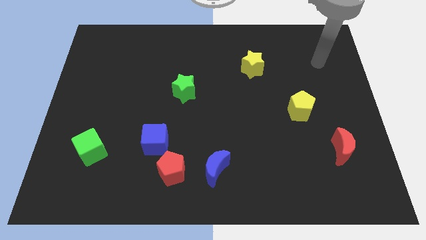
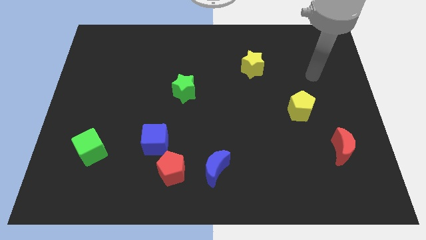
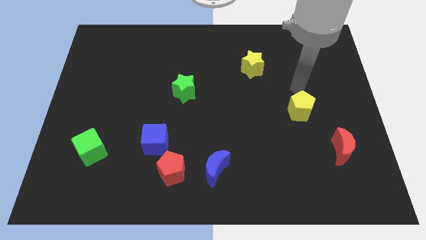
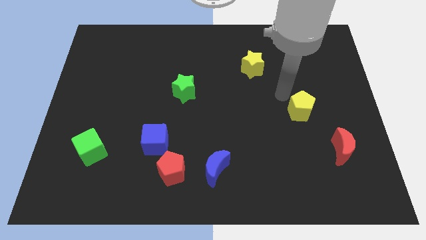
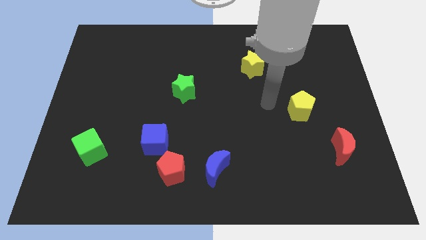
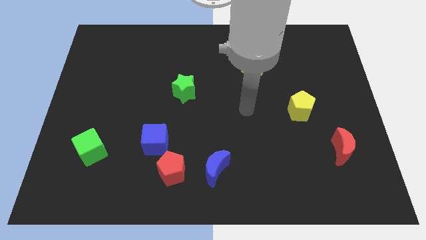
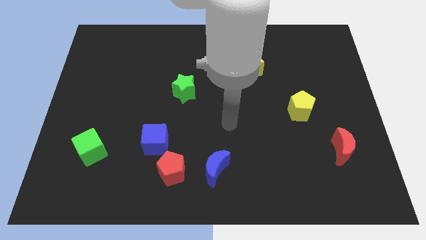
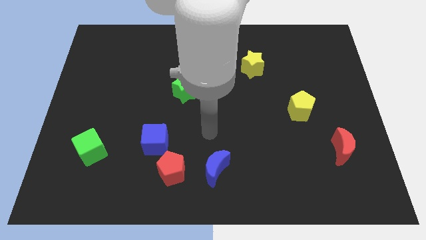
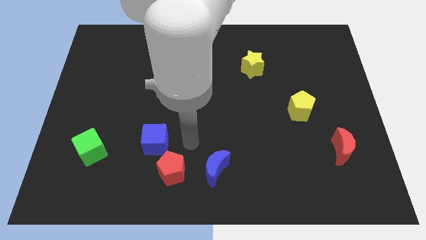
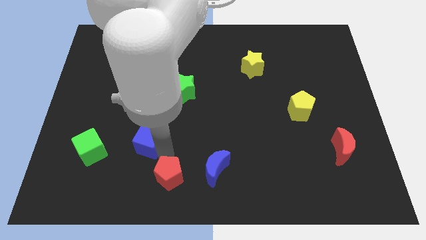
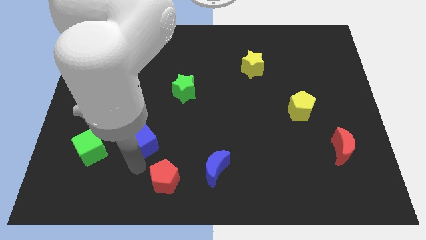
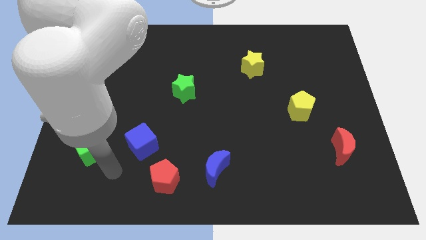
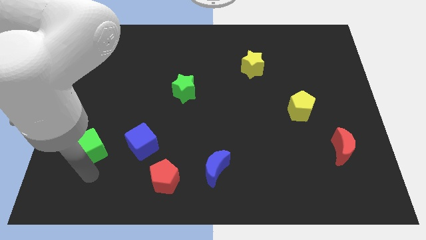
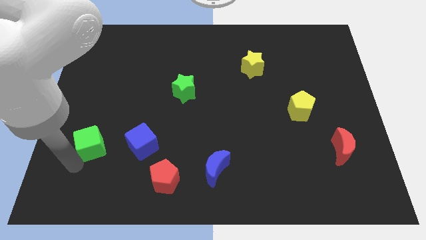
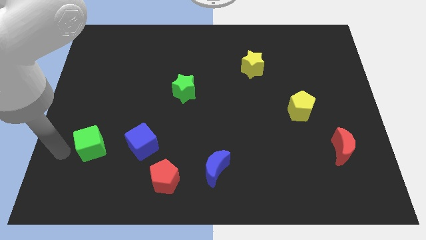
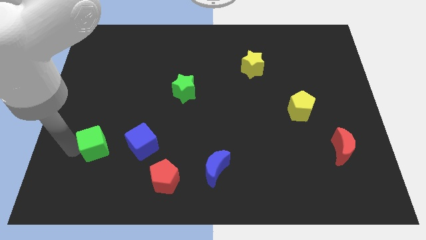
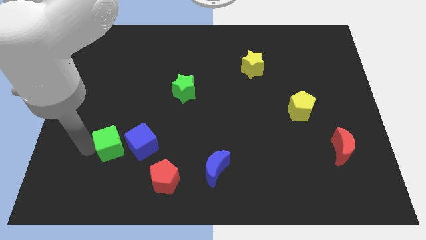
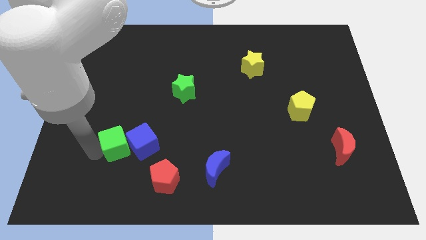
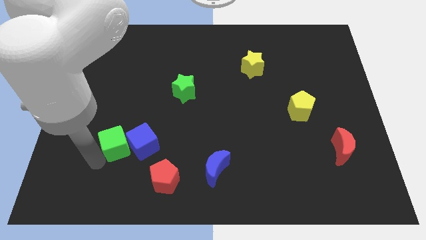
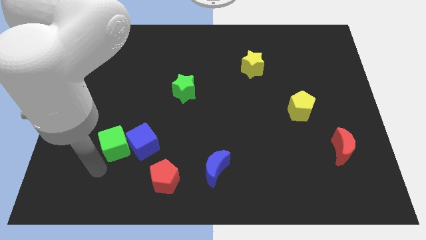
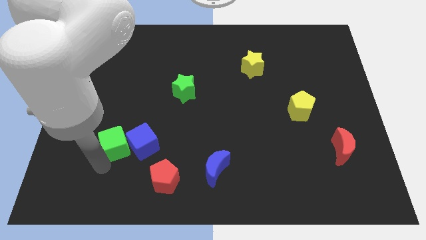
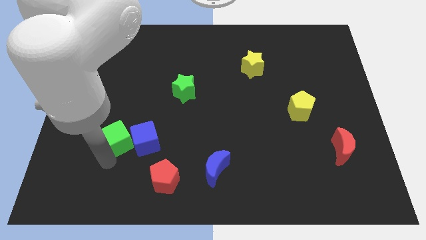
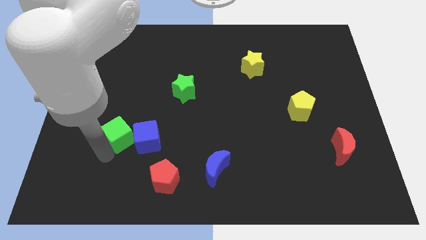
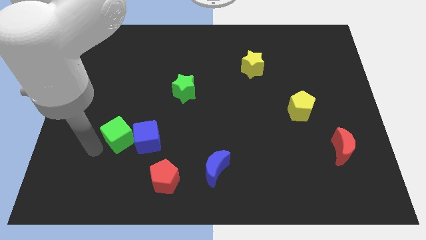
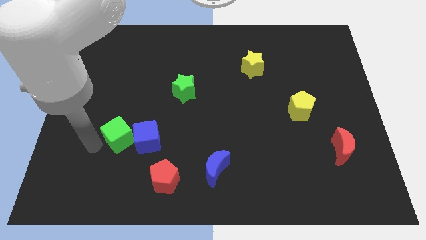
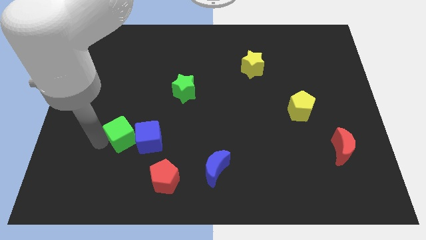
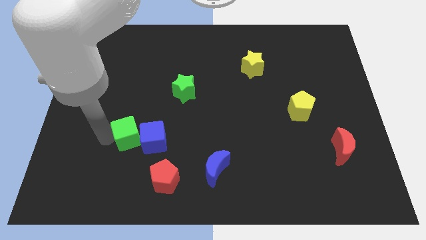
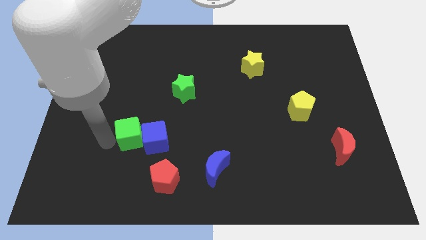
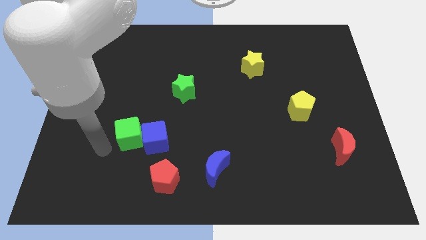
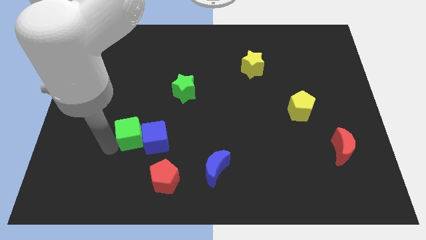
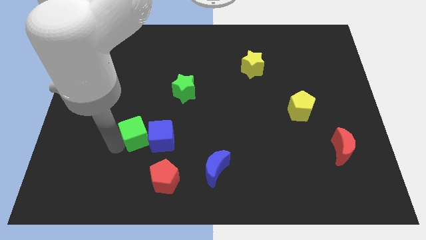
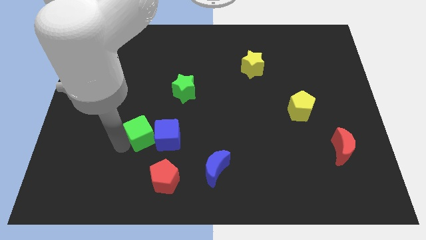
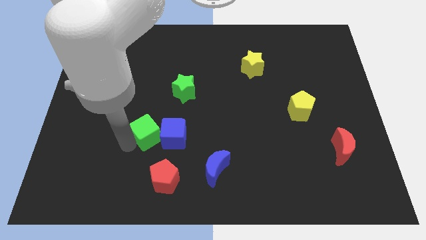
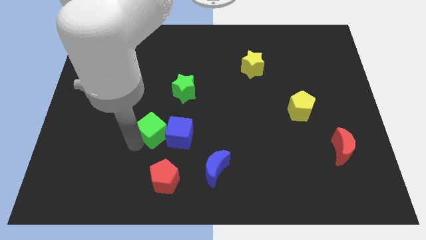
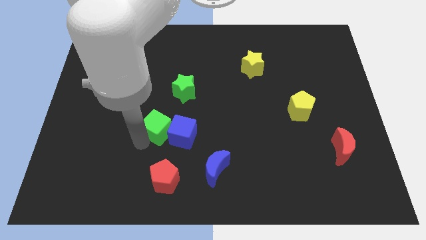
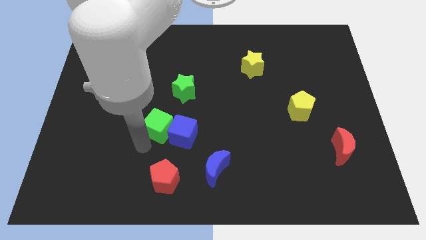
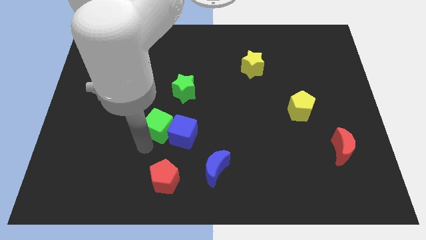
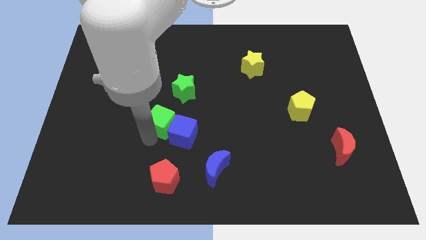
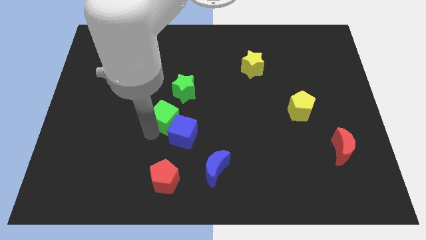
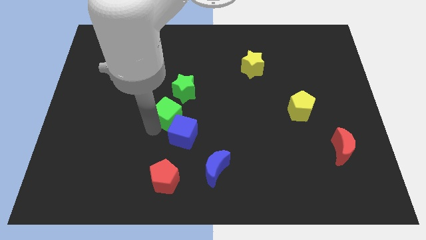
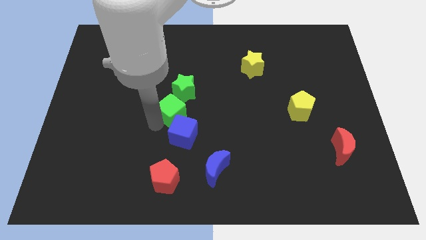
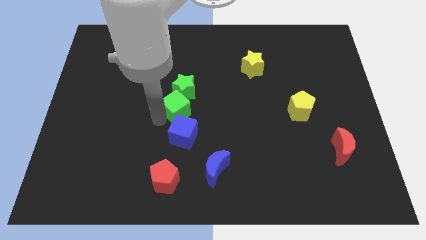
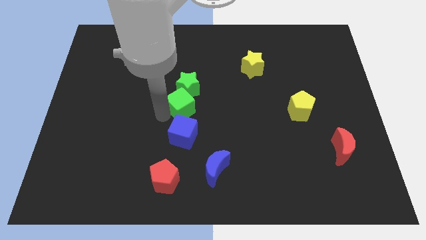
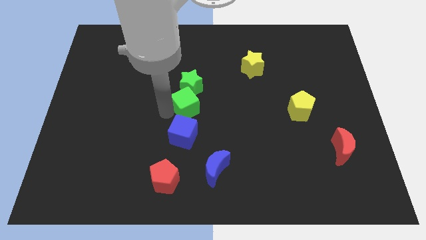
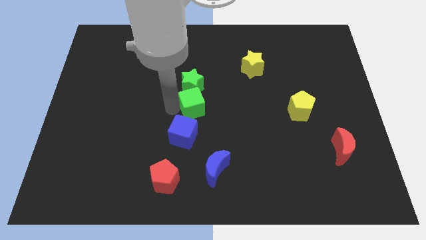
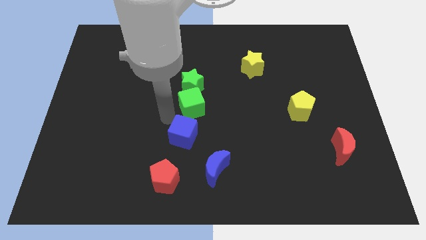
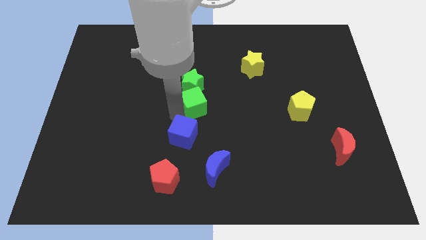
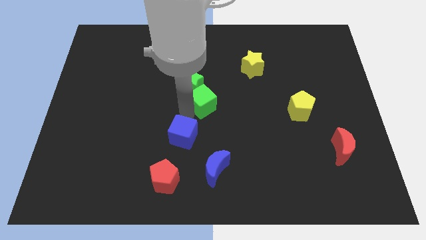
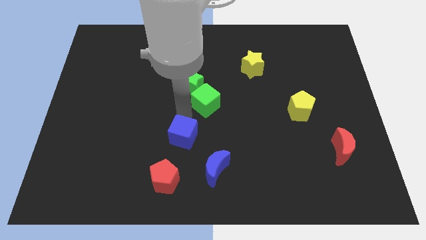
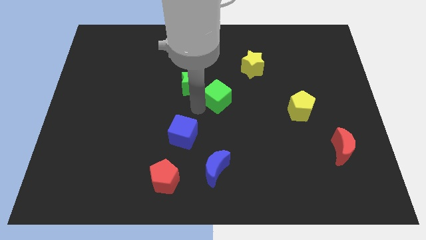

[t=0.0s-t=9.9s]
push the green cube right of the green star

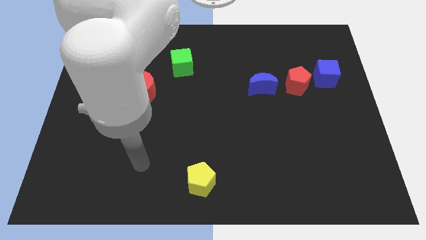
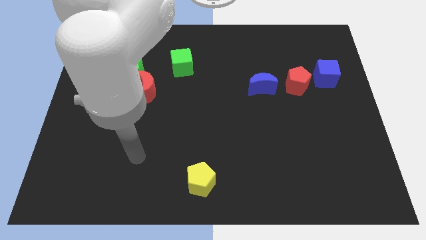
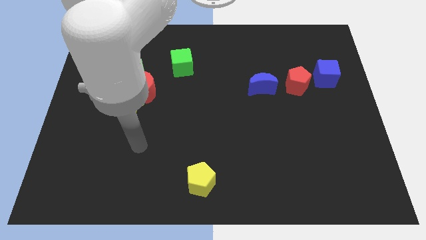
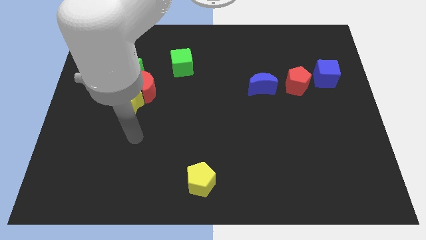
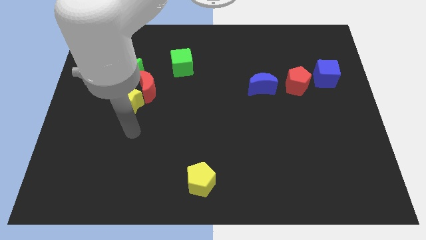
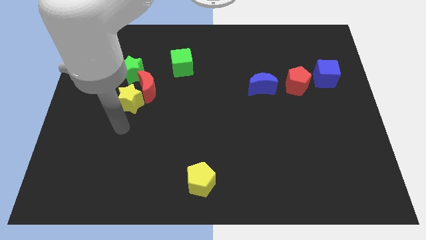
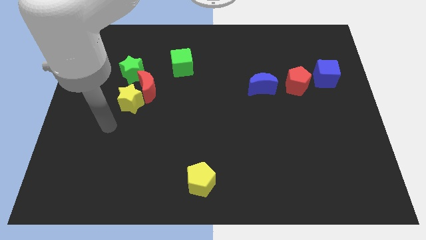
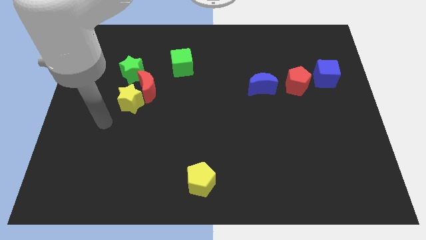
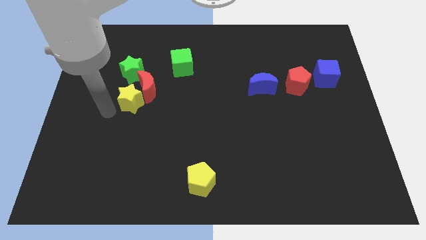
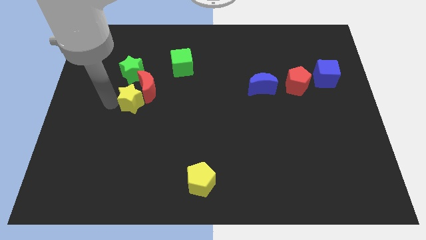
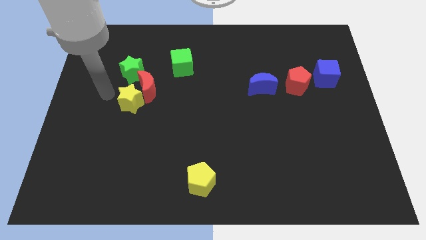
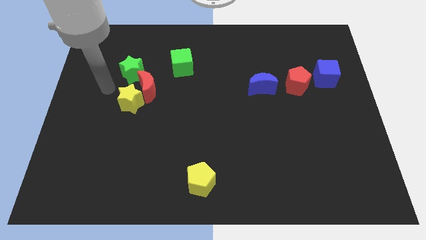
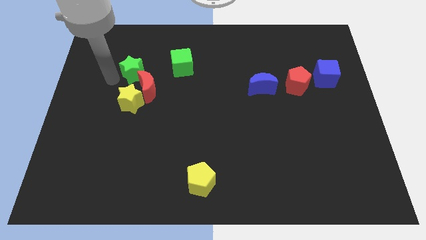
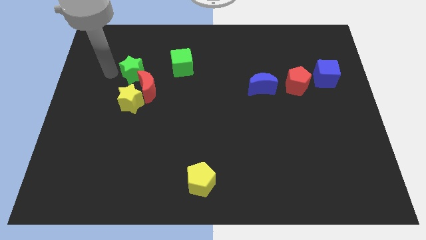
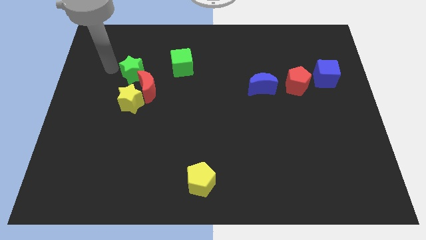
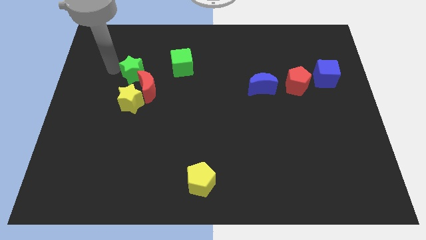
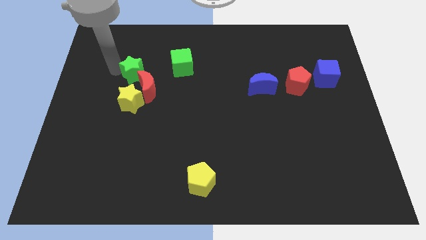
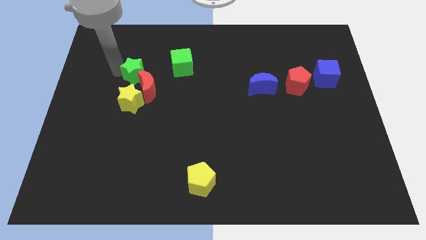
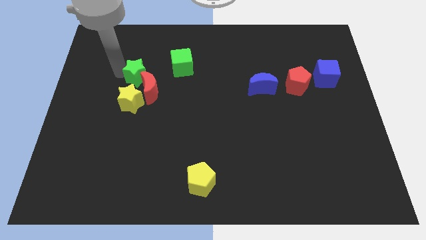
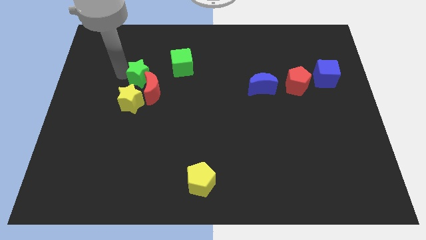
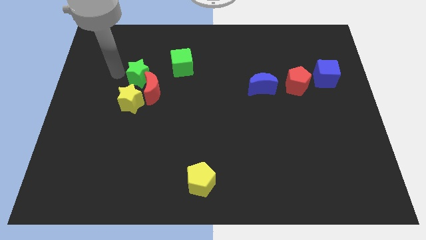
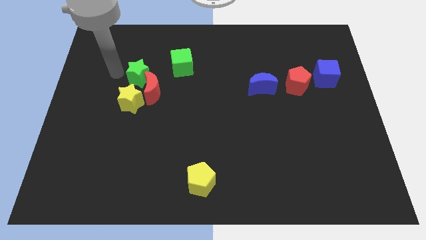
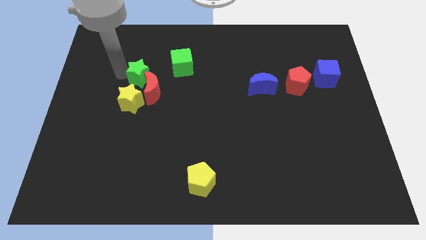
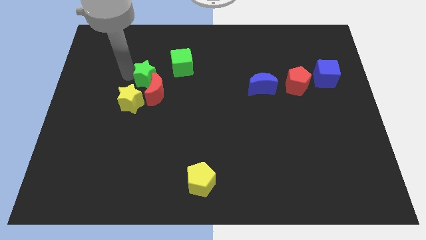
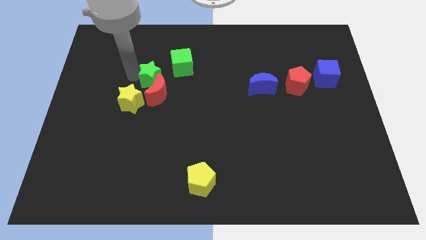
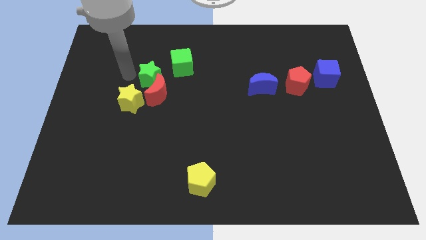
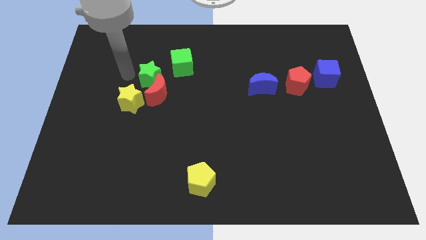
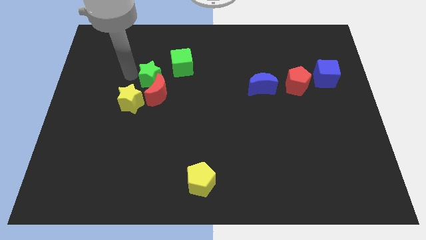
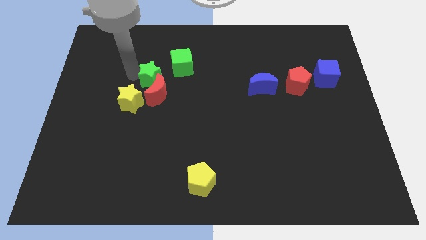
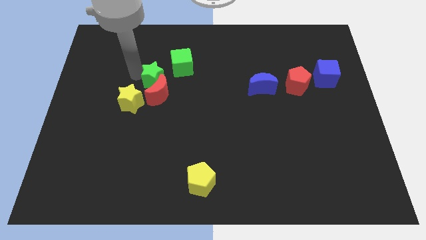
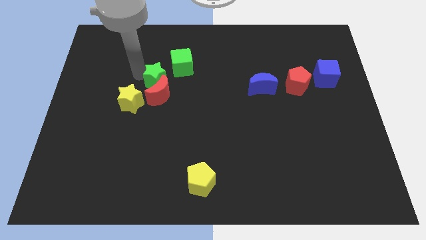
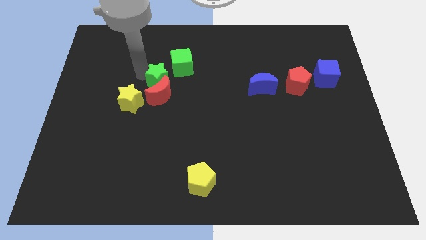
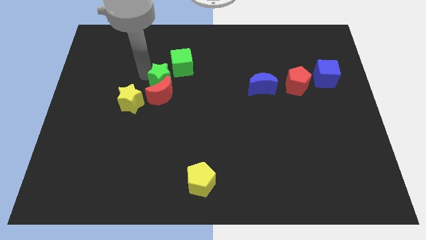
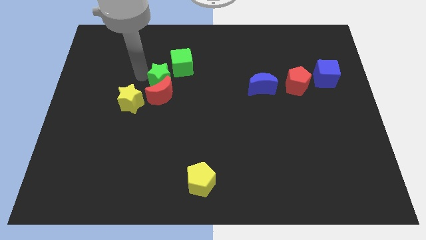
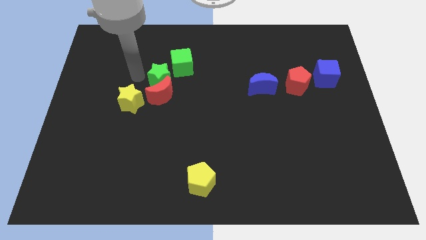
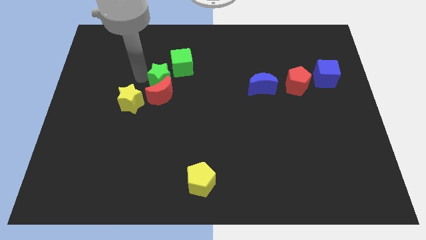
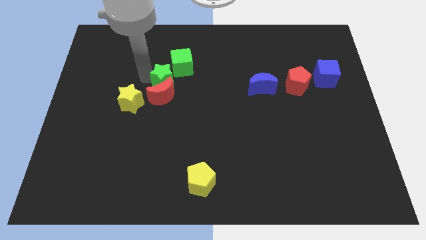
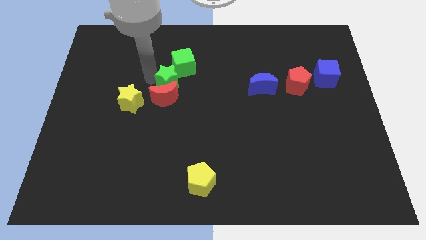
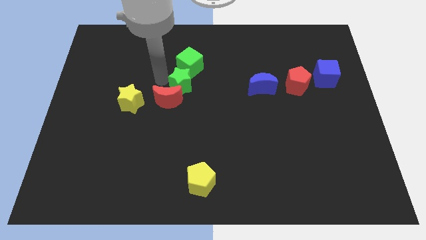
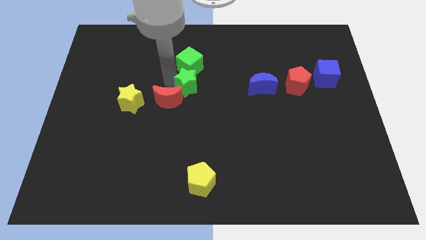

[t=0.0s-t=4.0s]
push the green star right of the red moon
